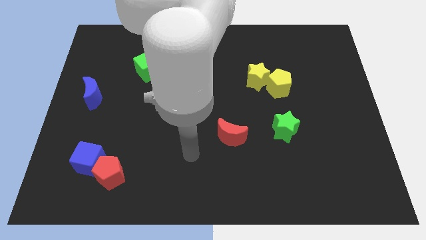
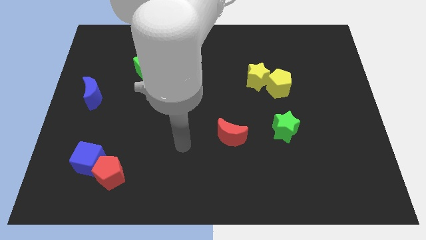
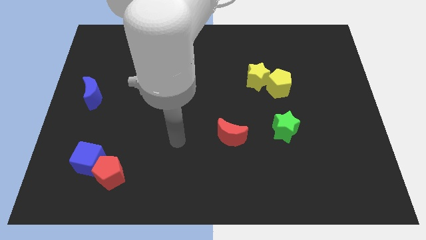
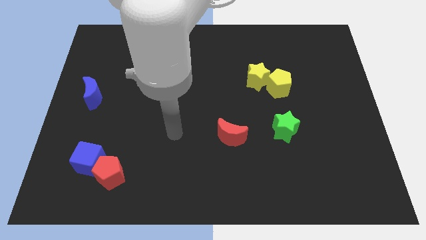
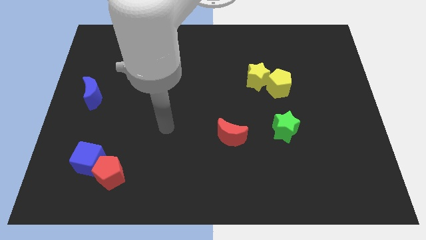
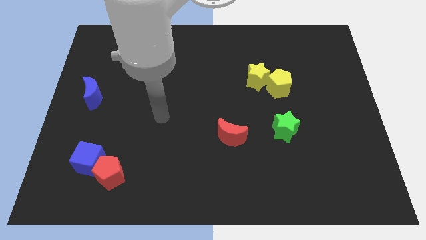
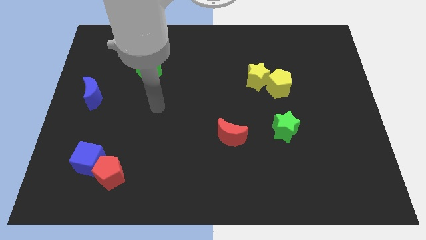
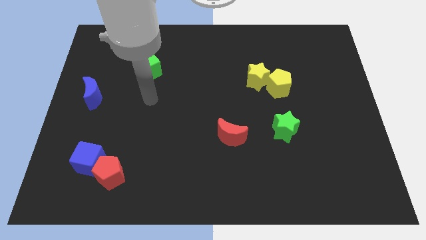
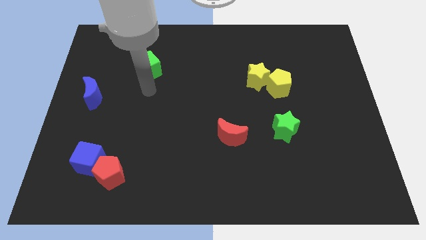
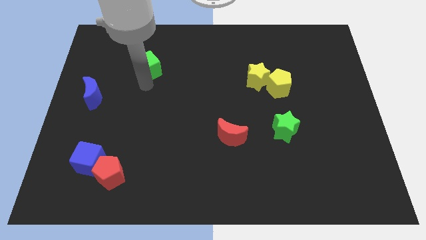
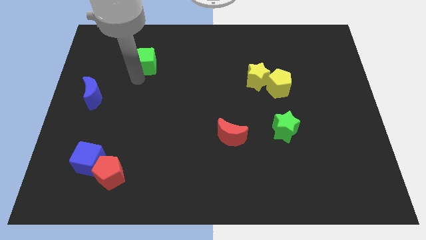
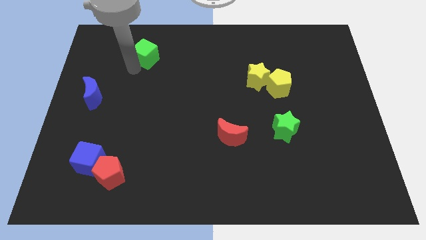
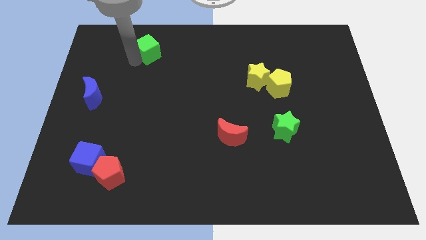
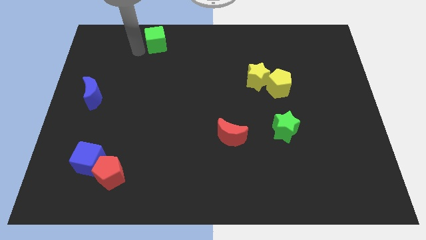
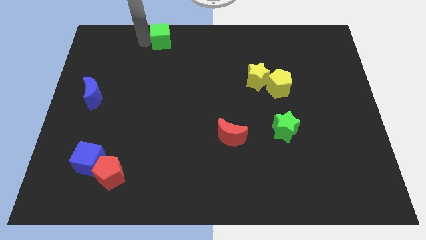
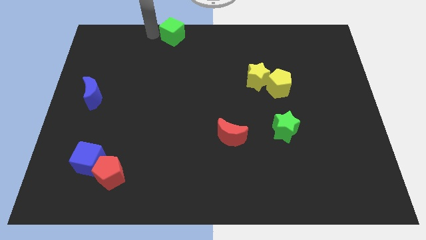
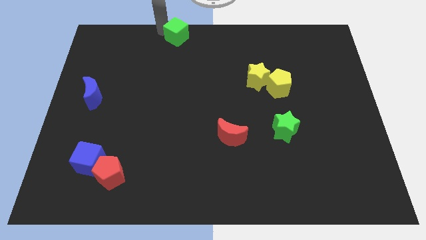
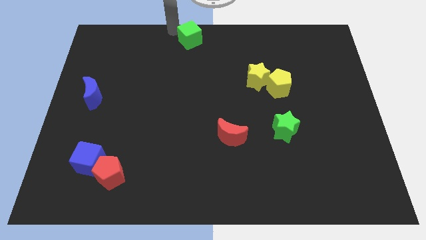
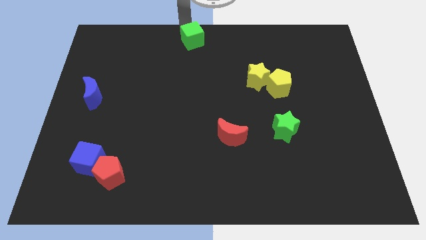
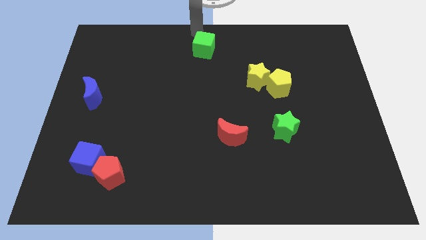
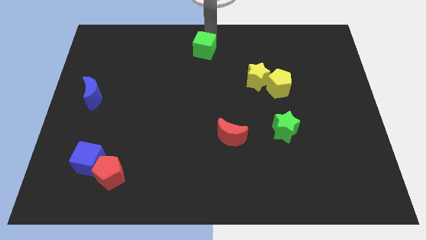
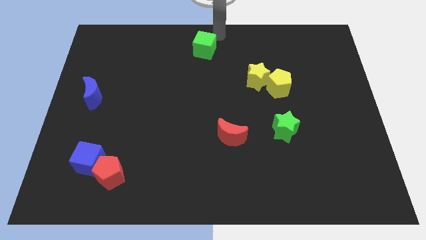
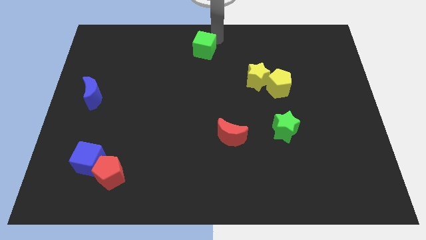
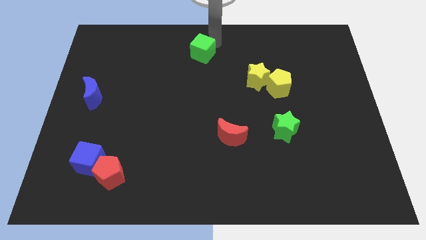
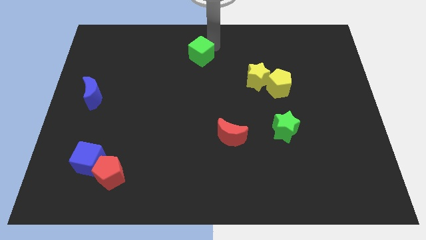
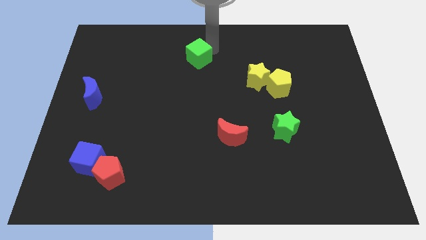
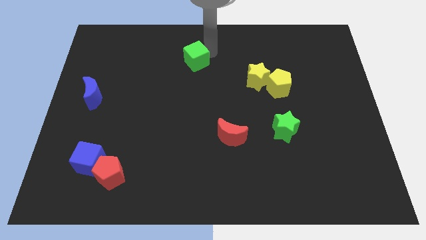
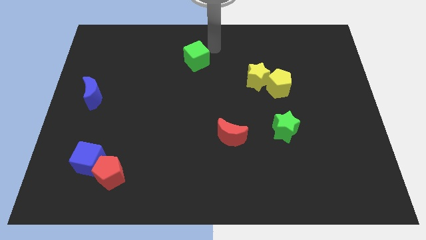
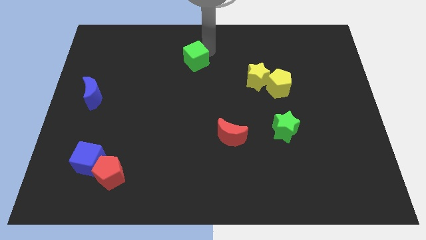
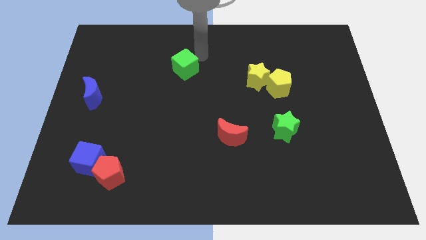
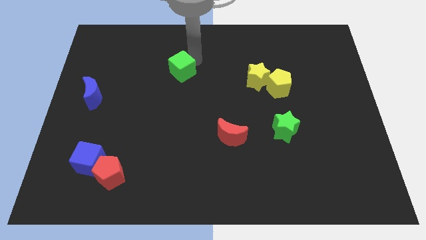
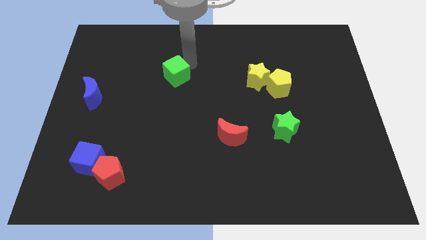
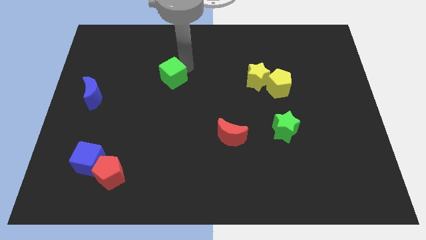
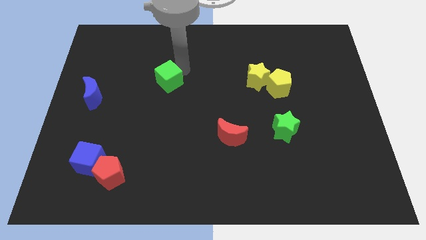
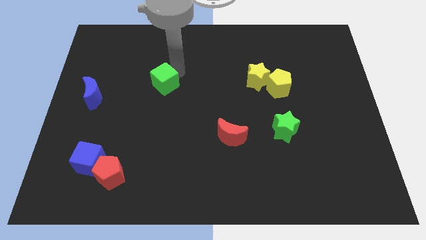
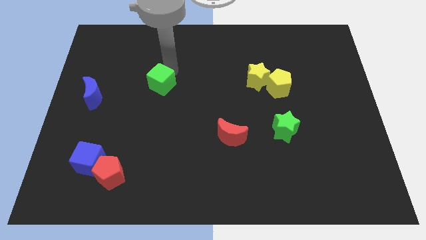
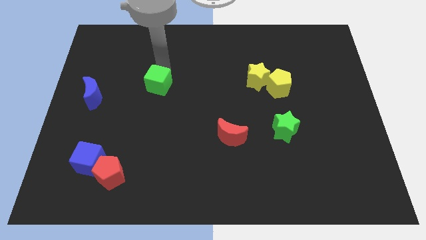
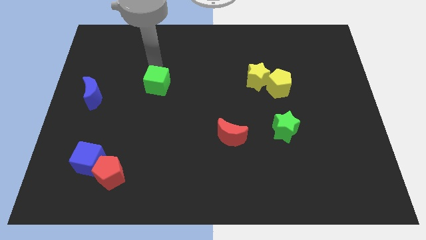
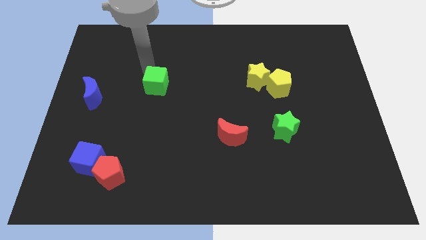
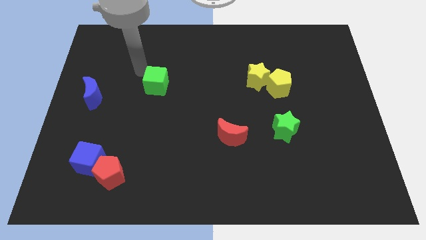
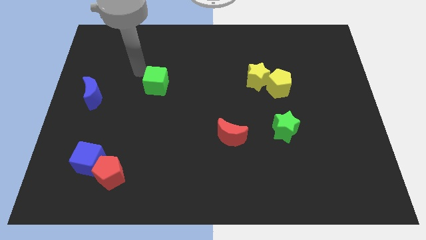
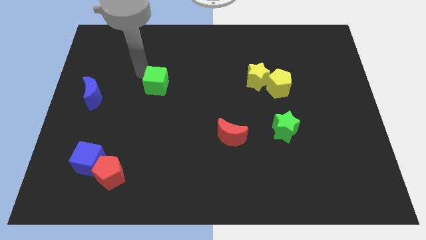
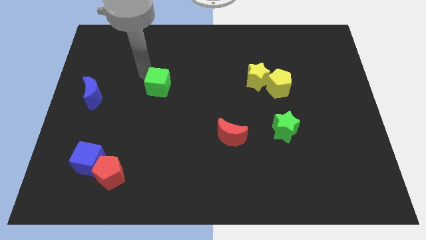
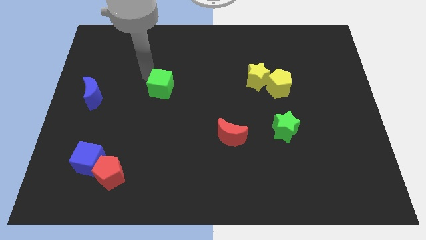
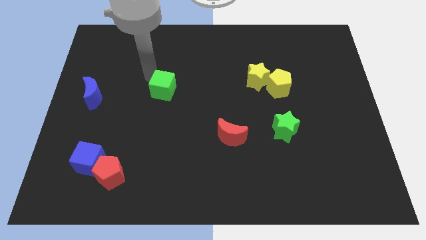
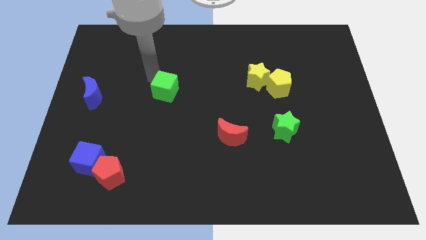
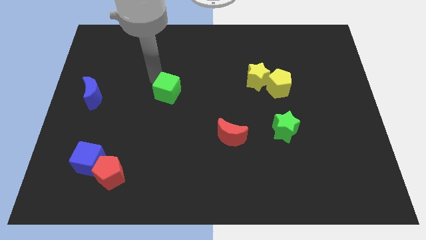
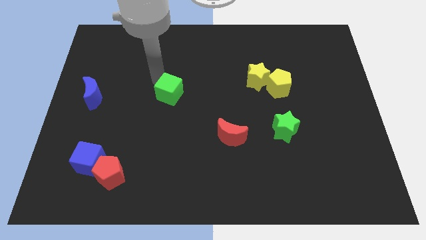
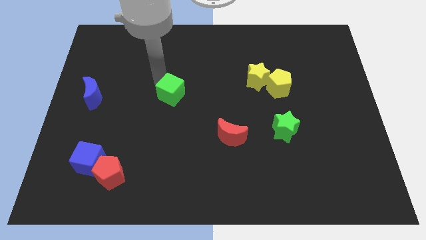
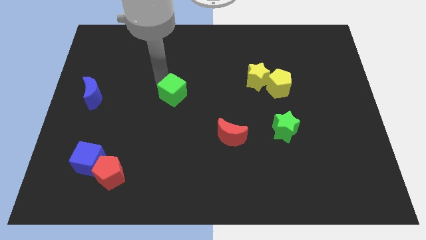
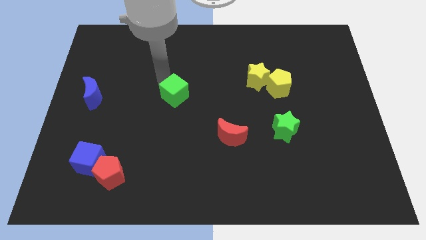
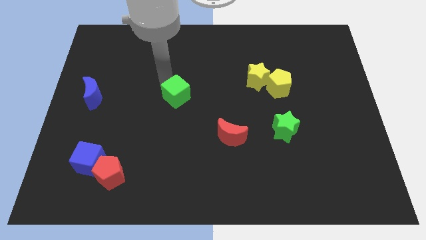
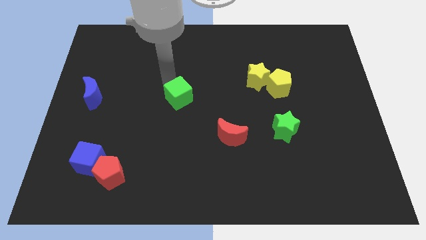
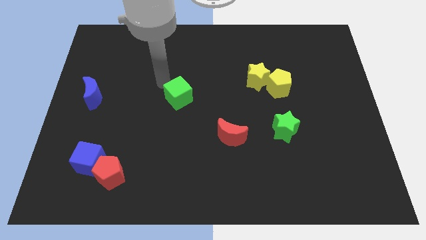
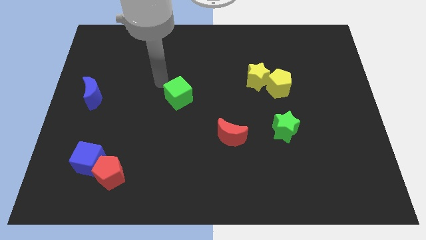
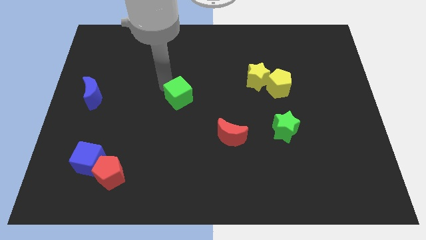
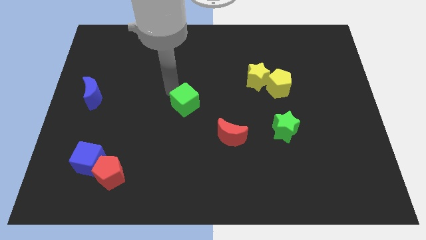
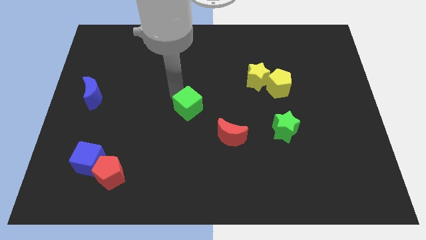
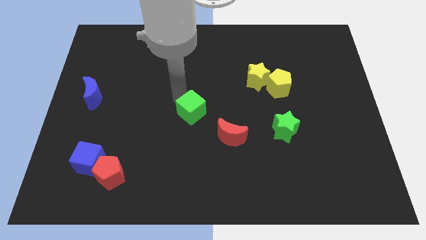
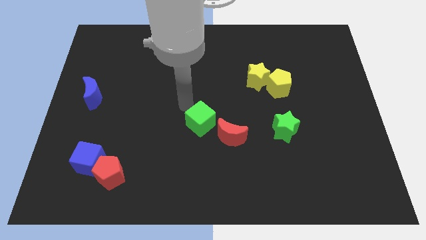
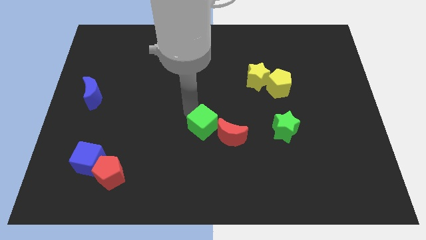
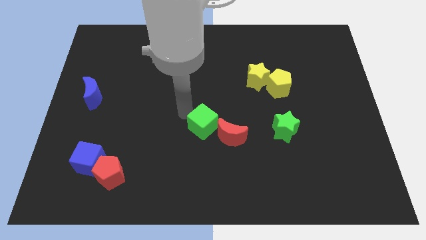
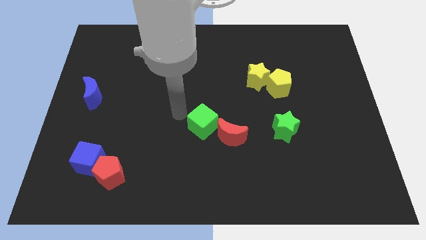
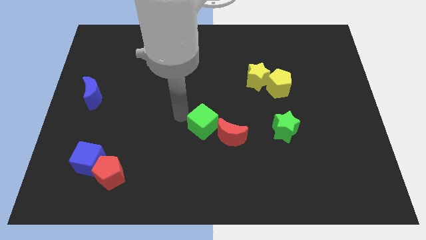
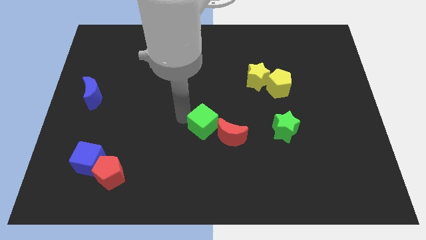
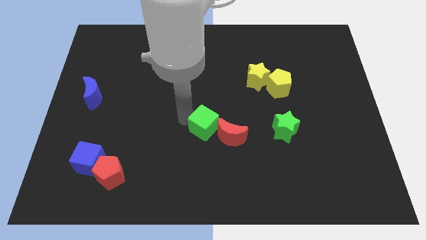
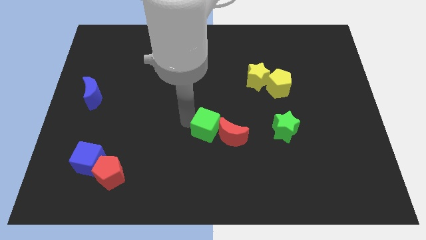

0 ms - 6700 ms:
put the green cube next to the red moon

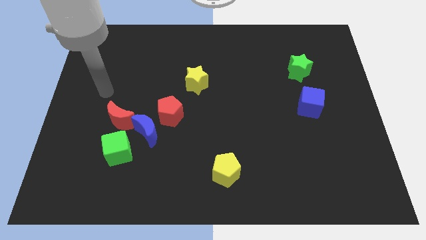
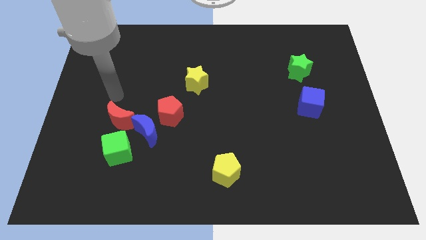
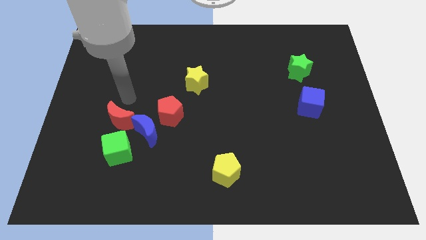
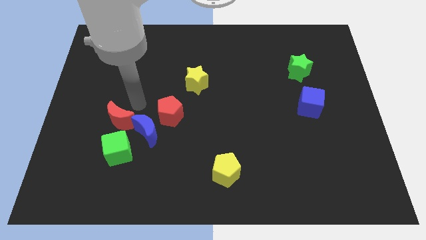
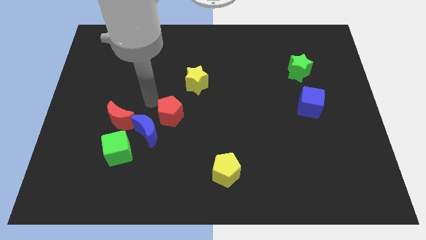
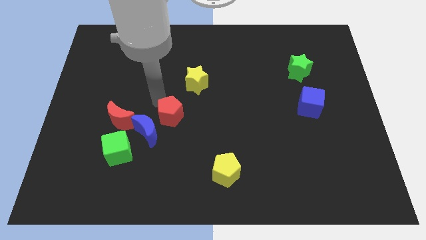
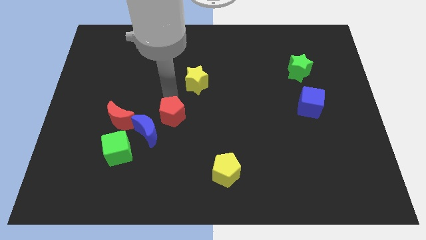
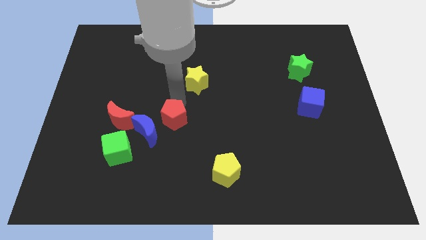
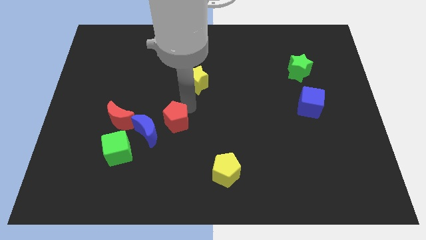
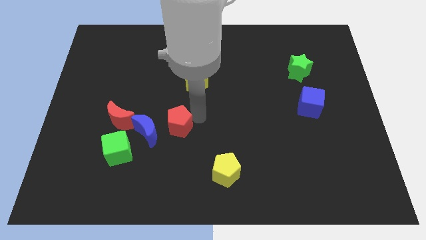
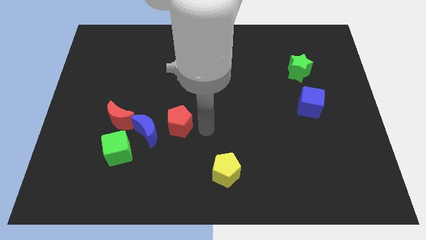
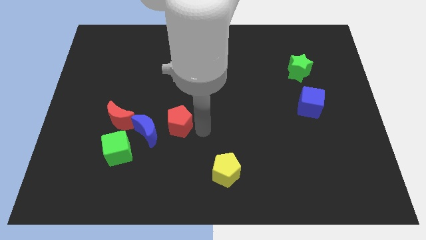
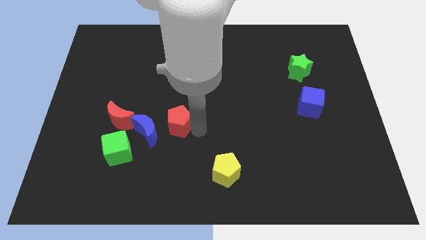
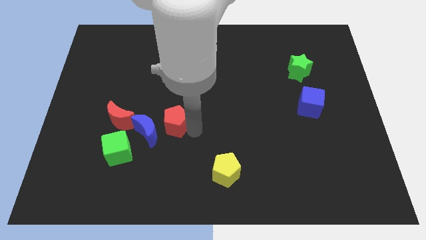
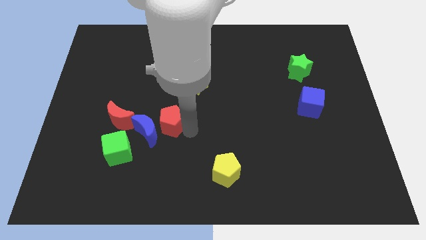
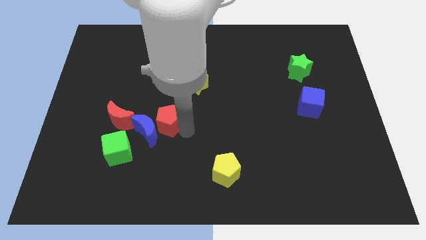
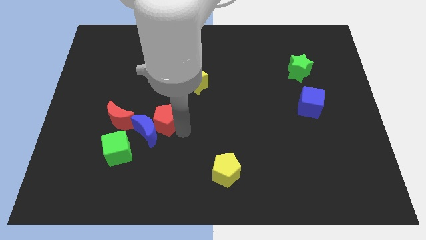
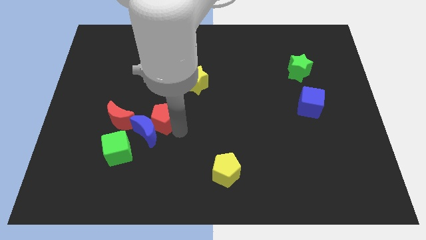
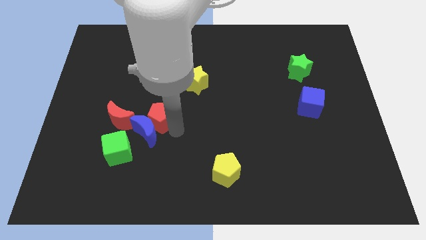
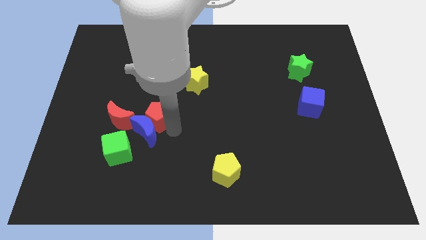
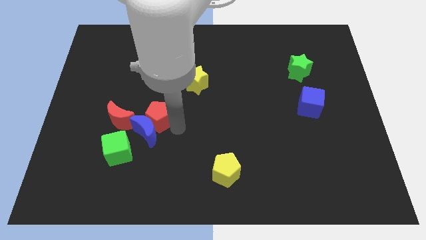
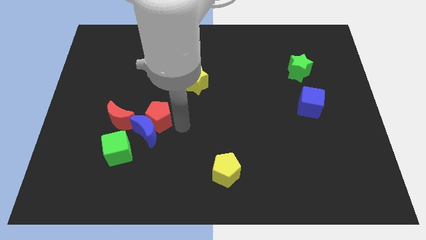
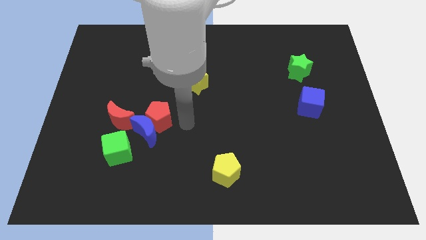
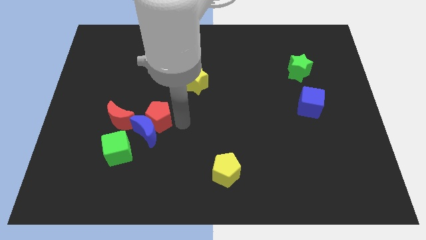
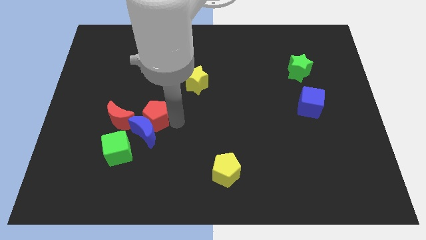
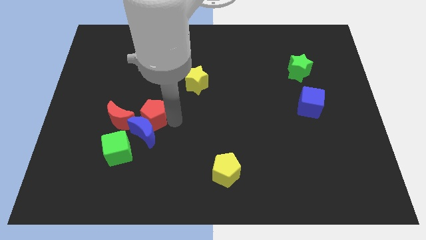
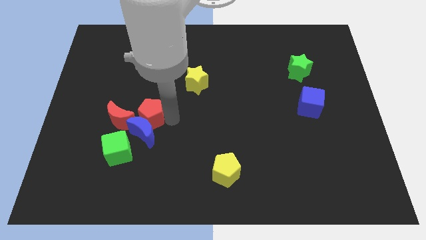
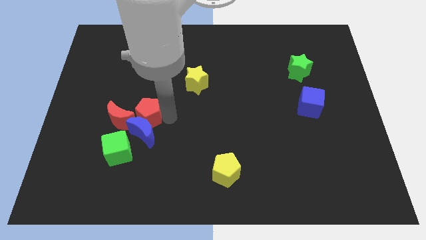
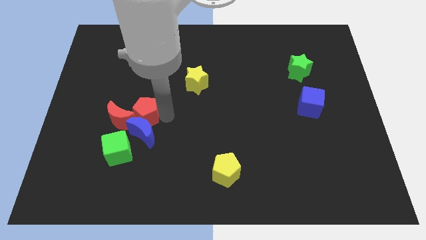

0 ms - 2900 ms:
push the red pentagon next to the red moon
